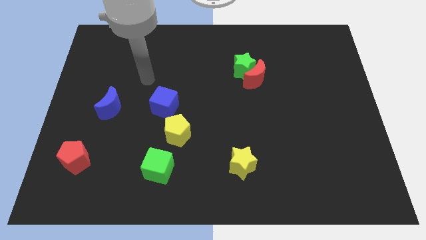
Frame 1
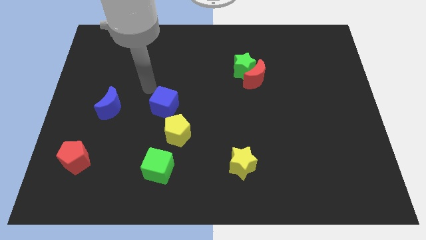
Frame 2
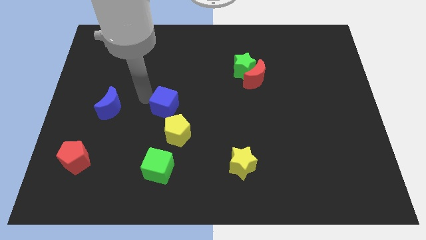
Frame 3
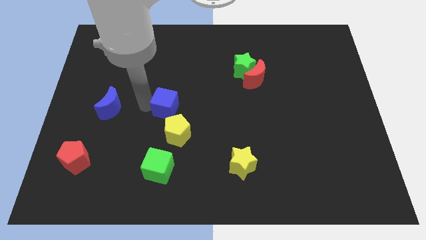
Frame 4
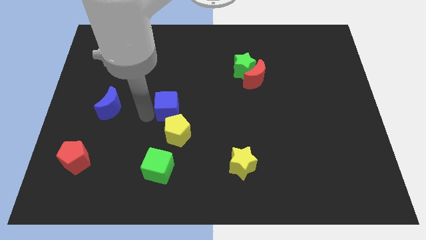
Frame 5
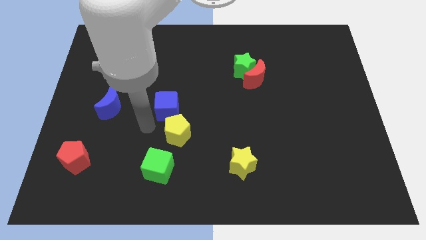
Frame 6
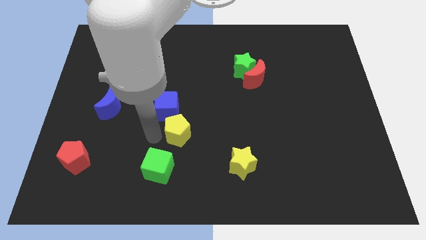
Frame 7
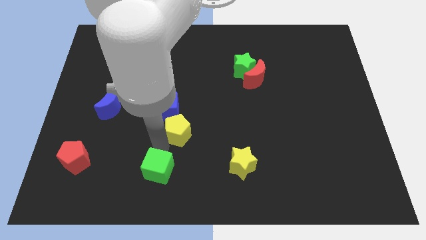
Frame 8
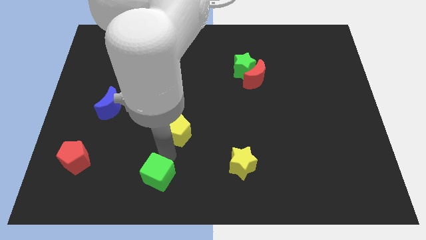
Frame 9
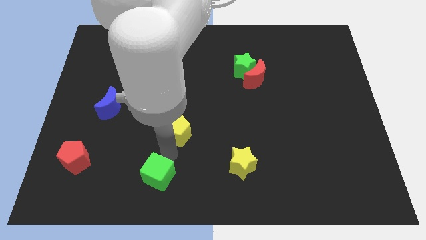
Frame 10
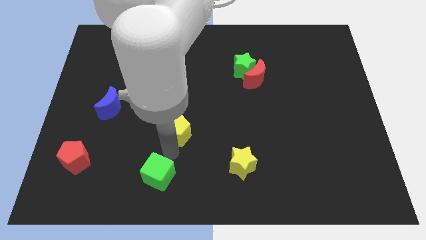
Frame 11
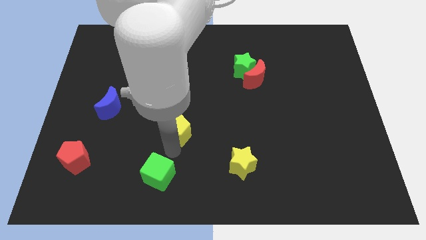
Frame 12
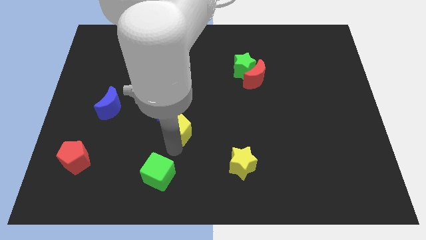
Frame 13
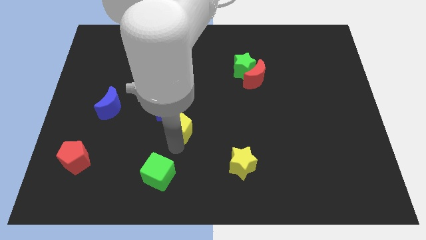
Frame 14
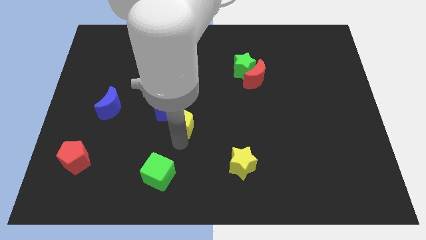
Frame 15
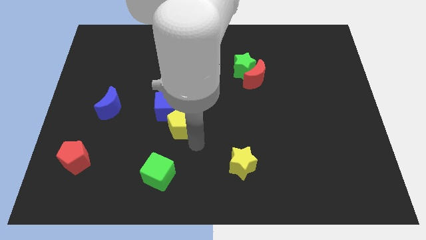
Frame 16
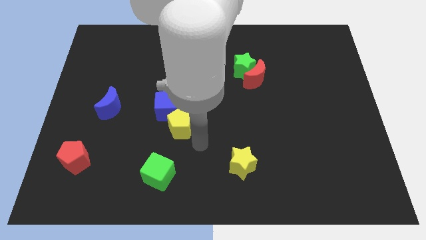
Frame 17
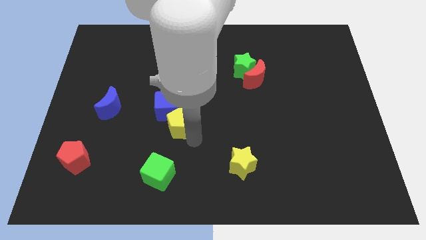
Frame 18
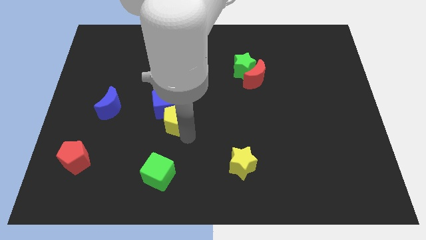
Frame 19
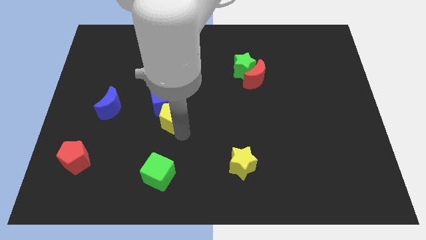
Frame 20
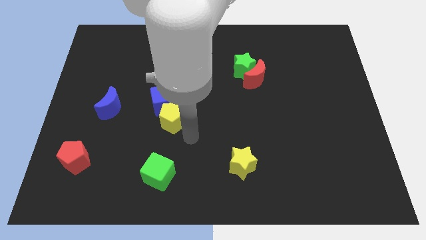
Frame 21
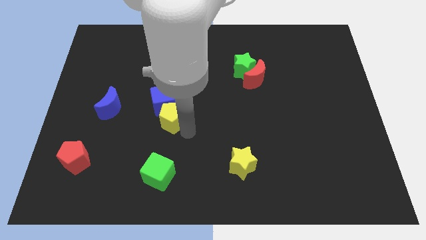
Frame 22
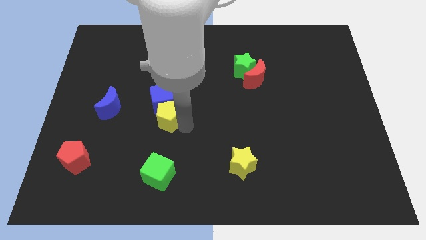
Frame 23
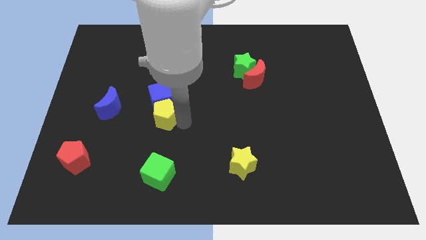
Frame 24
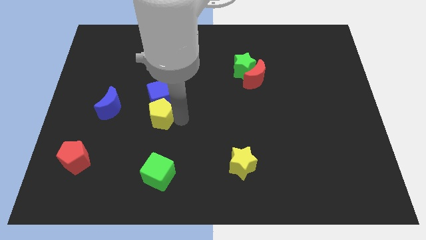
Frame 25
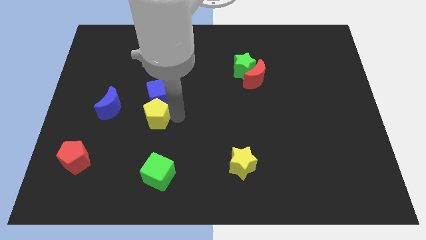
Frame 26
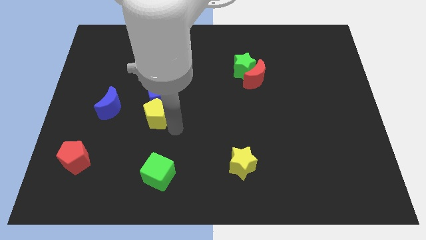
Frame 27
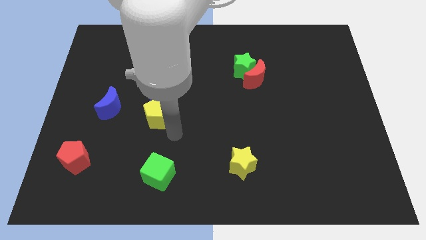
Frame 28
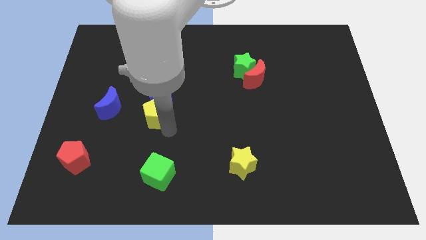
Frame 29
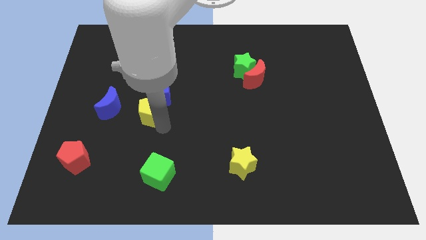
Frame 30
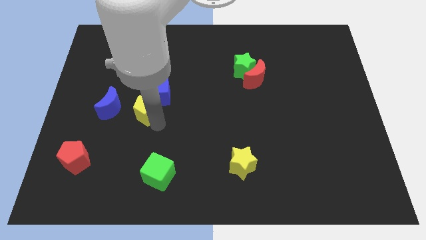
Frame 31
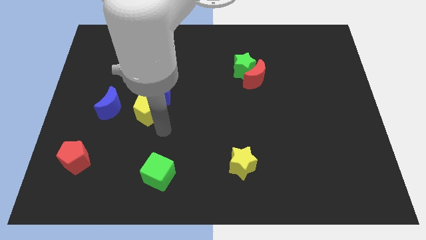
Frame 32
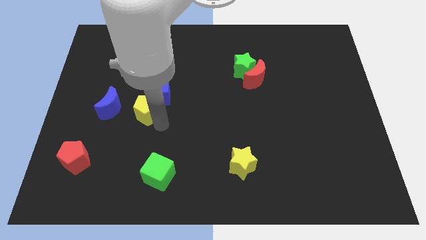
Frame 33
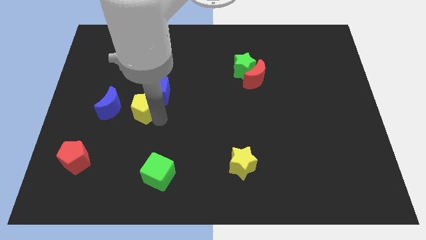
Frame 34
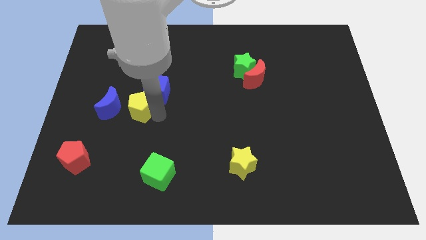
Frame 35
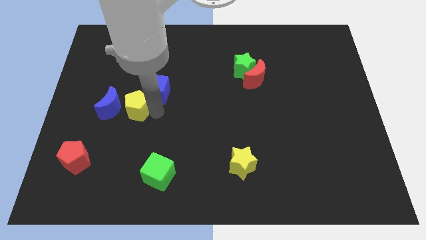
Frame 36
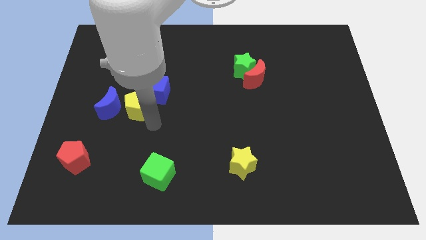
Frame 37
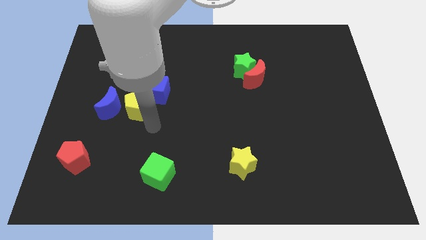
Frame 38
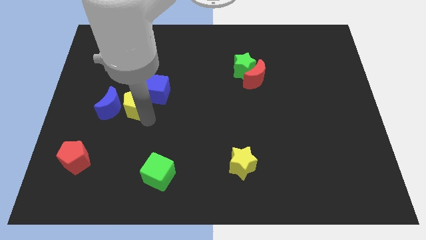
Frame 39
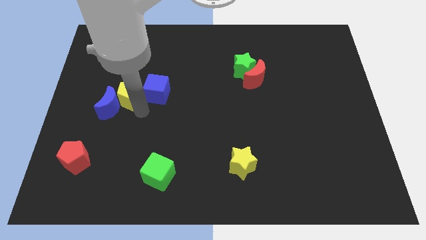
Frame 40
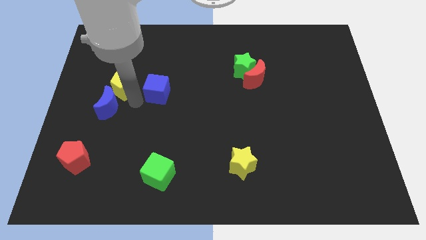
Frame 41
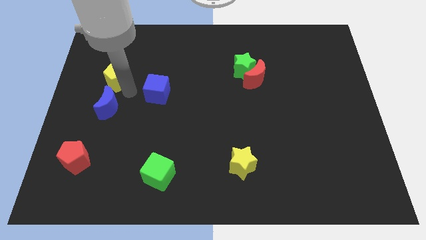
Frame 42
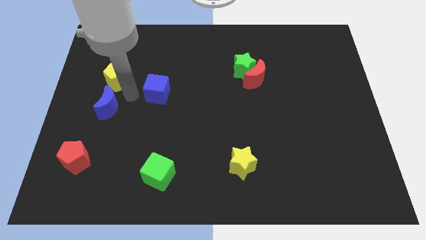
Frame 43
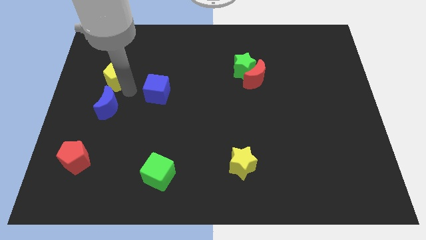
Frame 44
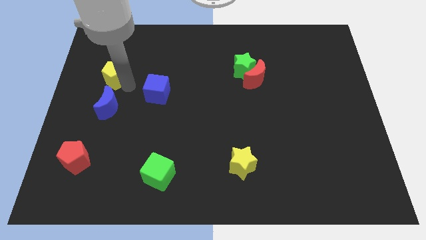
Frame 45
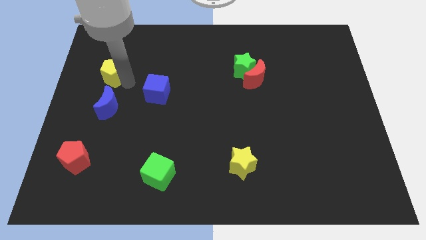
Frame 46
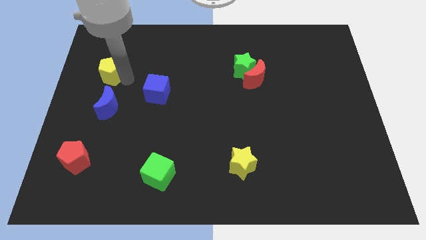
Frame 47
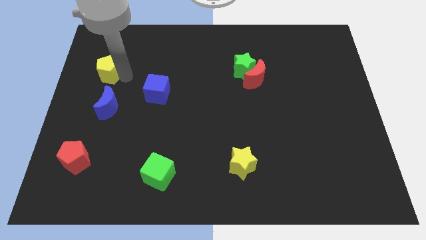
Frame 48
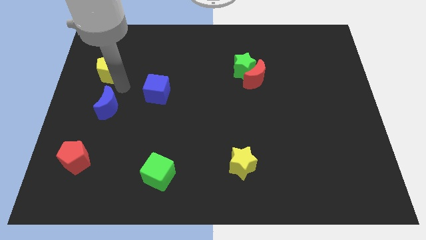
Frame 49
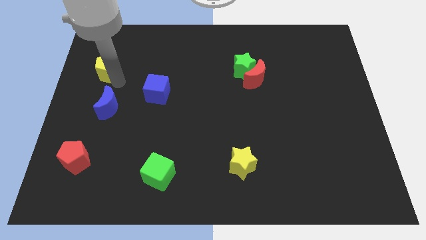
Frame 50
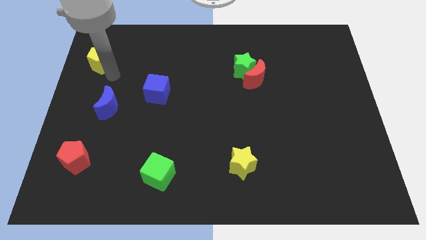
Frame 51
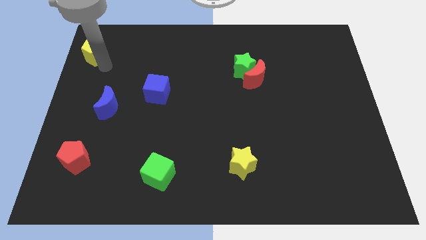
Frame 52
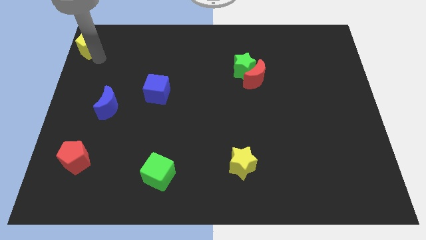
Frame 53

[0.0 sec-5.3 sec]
move the yellow pentagon to the top left corner
